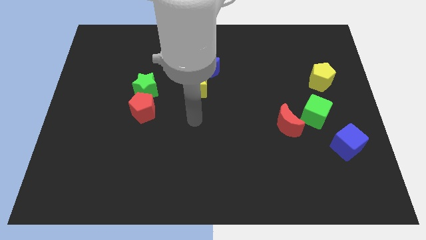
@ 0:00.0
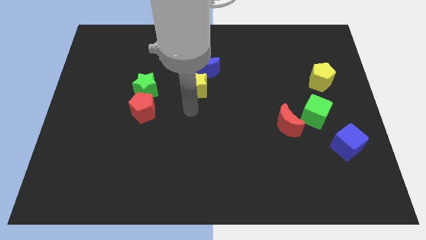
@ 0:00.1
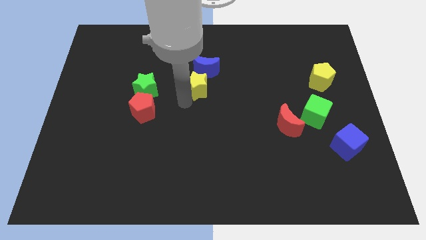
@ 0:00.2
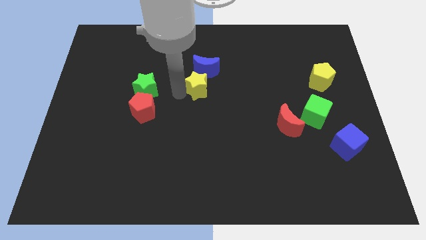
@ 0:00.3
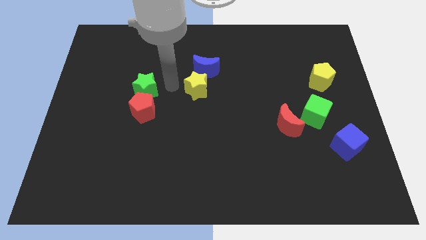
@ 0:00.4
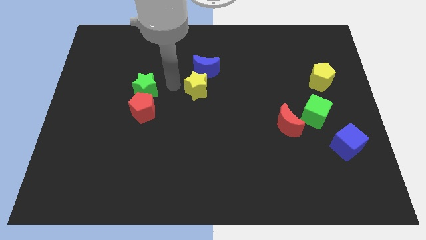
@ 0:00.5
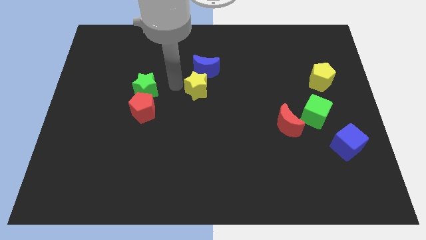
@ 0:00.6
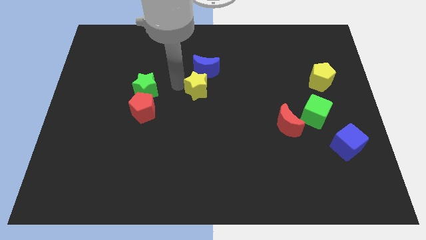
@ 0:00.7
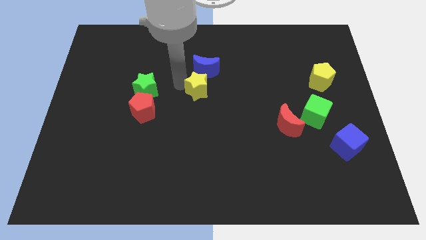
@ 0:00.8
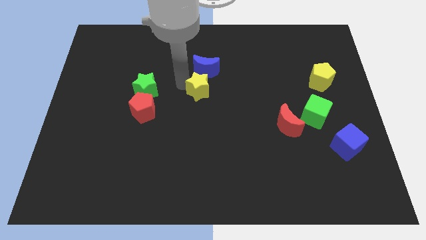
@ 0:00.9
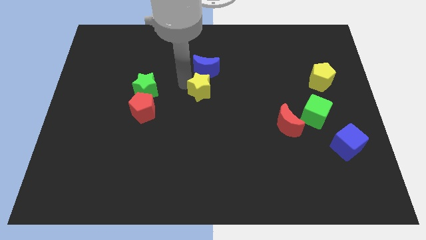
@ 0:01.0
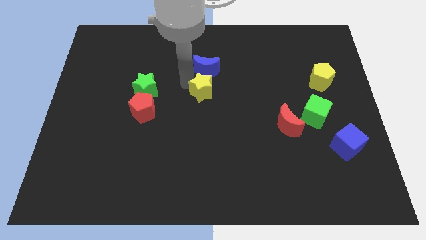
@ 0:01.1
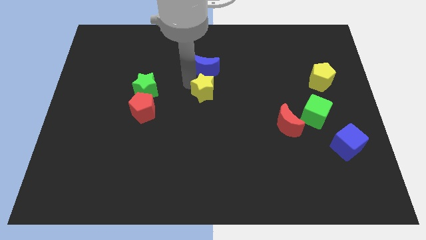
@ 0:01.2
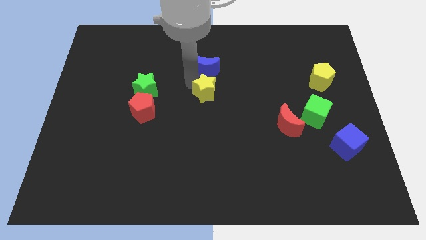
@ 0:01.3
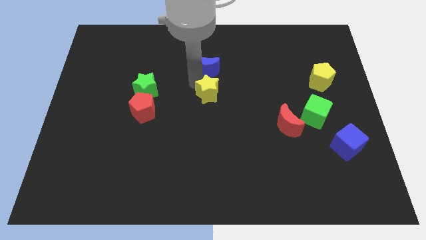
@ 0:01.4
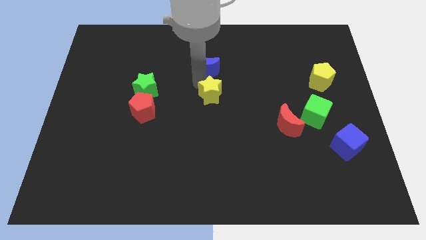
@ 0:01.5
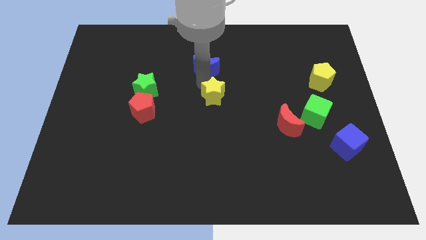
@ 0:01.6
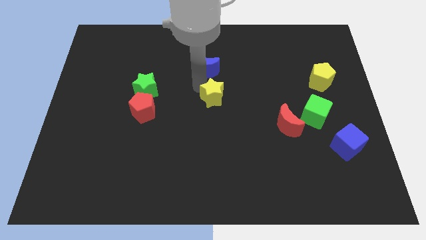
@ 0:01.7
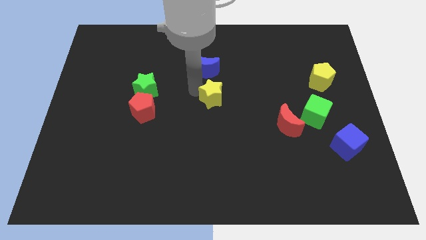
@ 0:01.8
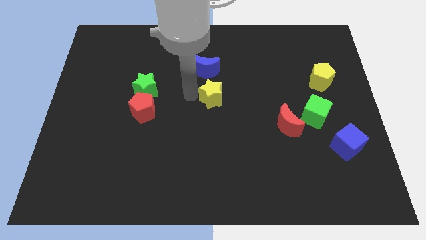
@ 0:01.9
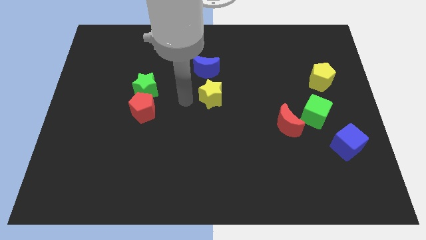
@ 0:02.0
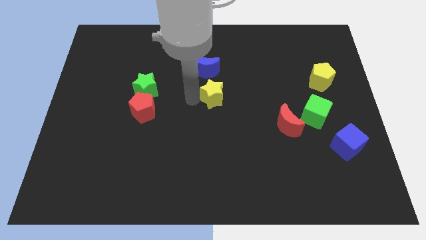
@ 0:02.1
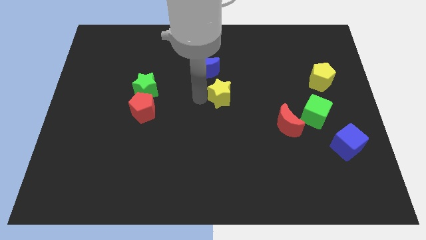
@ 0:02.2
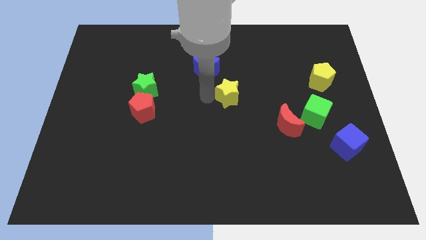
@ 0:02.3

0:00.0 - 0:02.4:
push the yellow star a little bit right

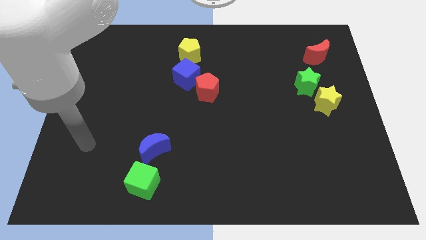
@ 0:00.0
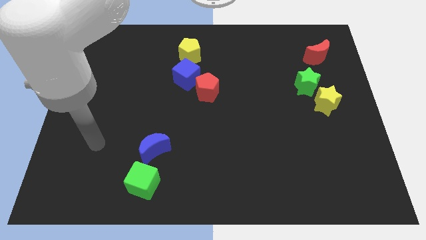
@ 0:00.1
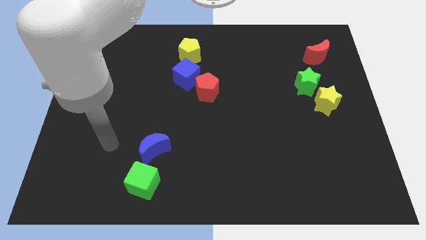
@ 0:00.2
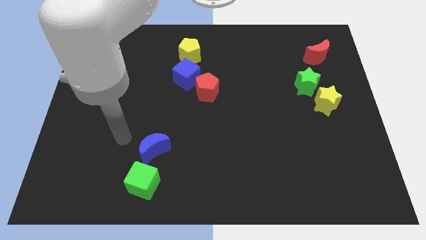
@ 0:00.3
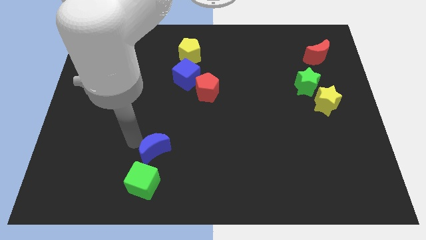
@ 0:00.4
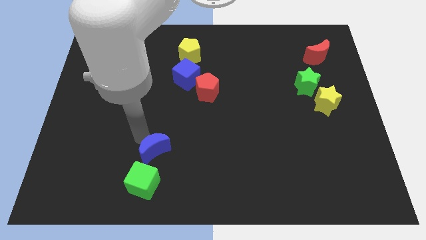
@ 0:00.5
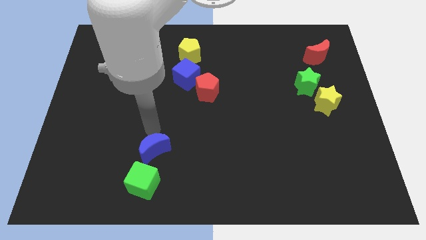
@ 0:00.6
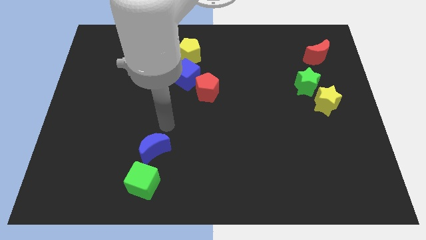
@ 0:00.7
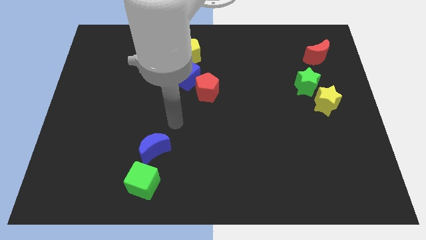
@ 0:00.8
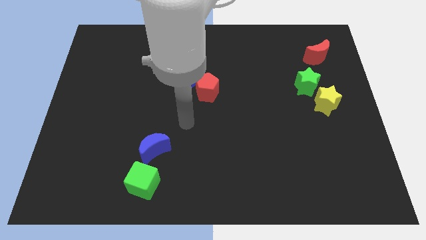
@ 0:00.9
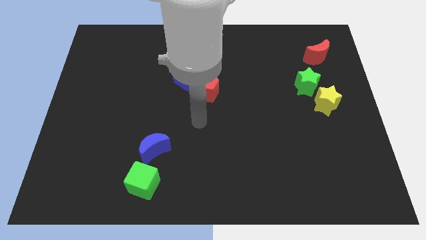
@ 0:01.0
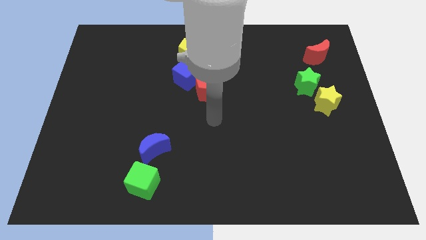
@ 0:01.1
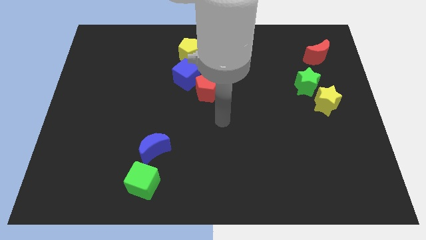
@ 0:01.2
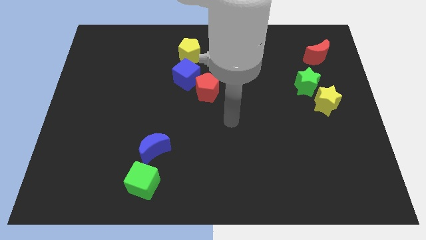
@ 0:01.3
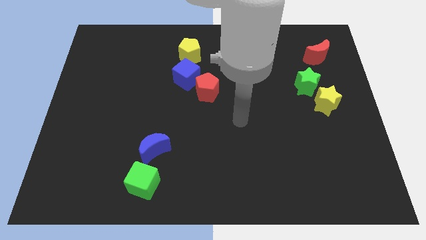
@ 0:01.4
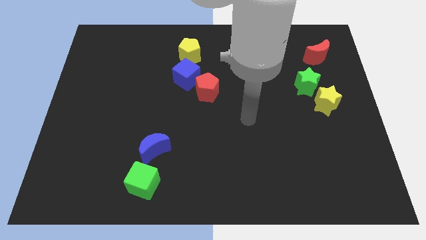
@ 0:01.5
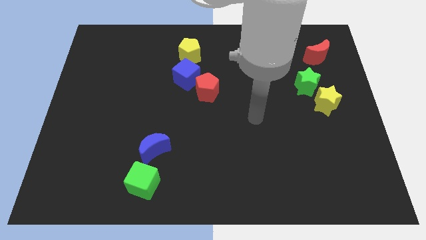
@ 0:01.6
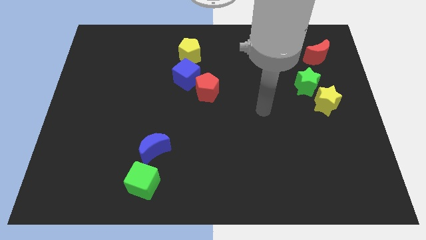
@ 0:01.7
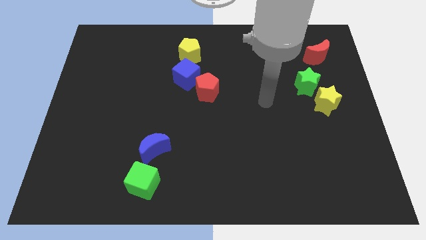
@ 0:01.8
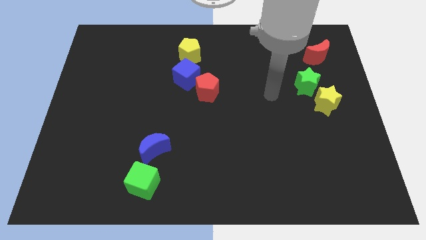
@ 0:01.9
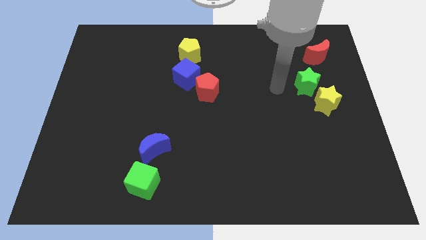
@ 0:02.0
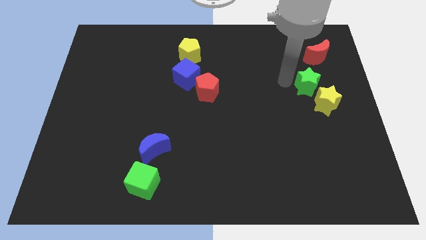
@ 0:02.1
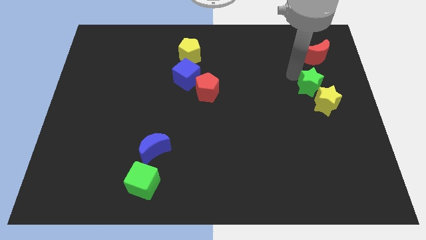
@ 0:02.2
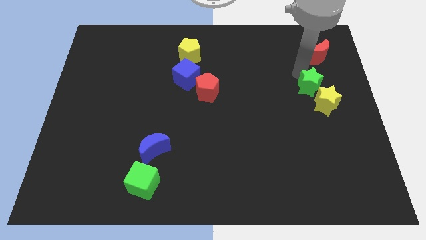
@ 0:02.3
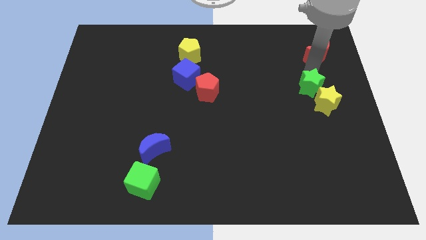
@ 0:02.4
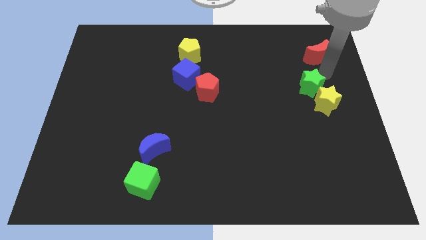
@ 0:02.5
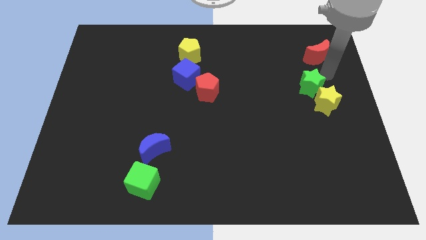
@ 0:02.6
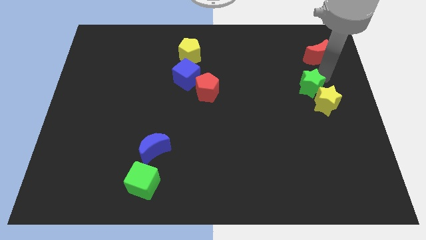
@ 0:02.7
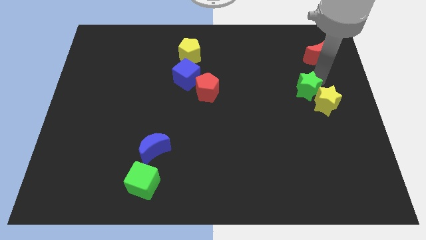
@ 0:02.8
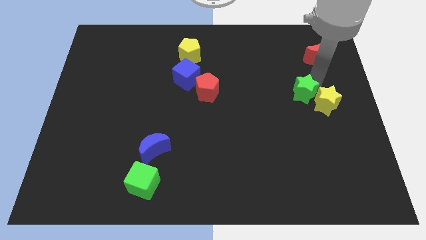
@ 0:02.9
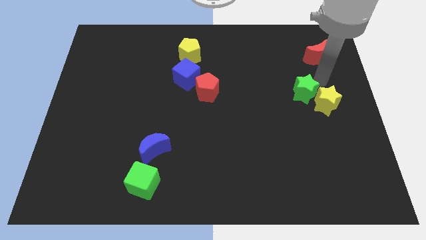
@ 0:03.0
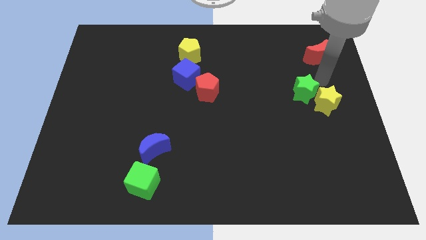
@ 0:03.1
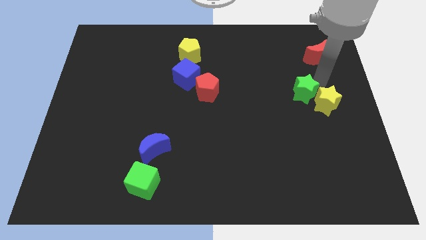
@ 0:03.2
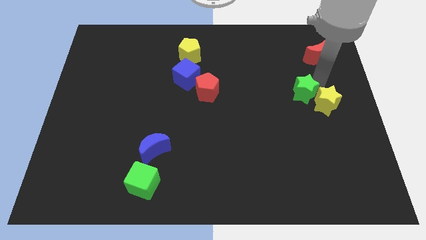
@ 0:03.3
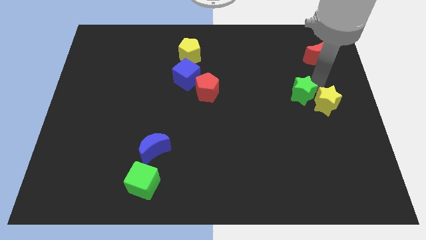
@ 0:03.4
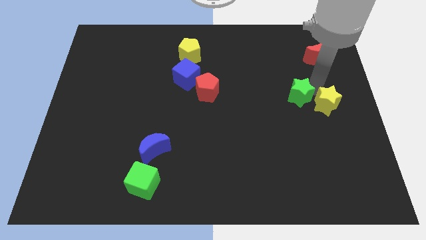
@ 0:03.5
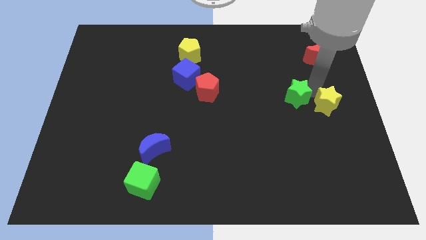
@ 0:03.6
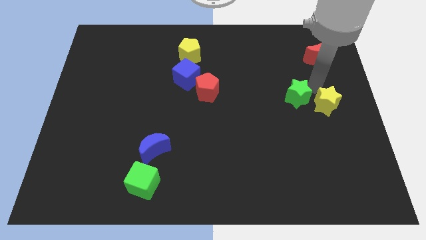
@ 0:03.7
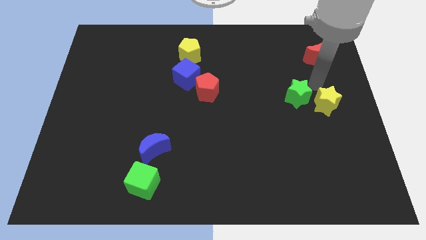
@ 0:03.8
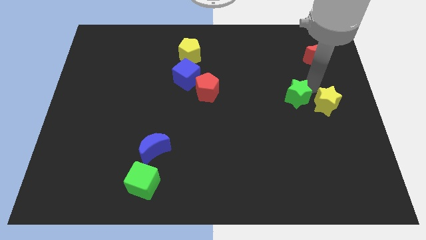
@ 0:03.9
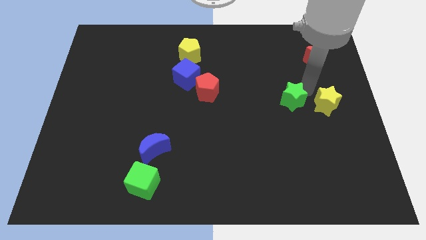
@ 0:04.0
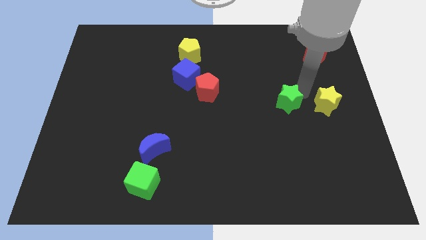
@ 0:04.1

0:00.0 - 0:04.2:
move the green star downwards and to the left diagonally somewhat

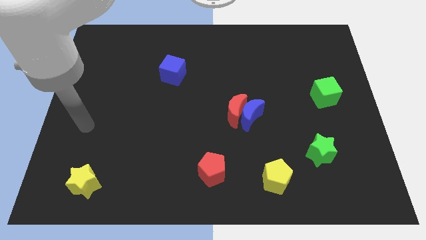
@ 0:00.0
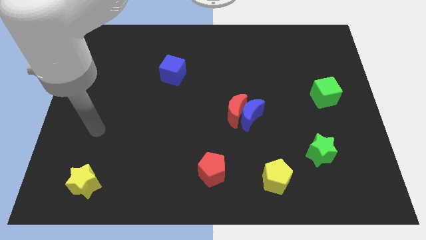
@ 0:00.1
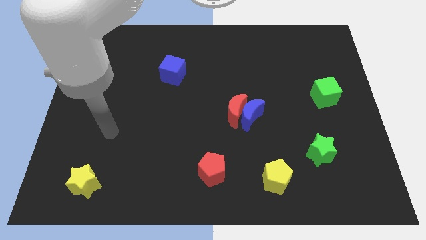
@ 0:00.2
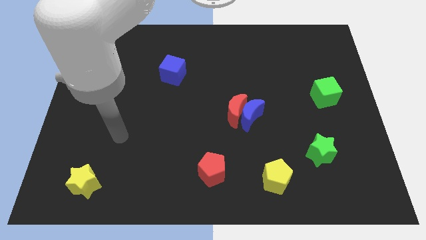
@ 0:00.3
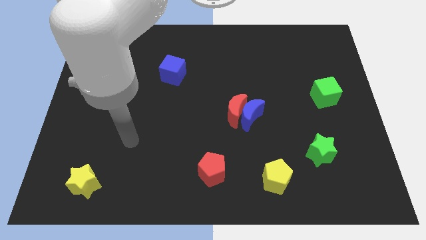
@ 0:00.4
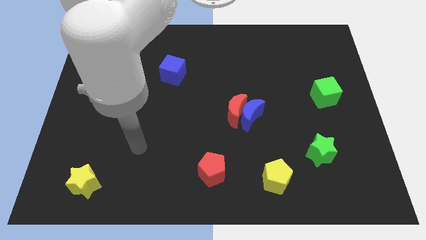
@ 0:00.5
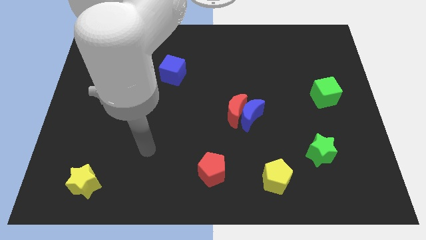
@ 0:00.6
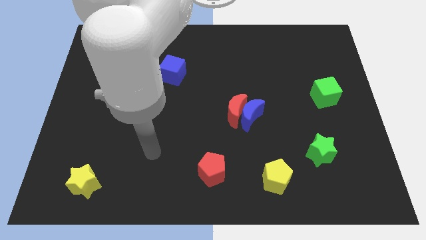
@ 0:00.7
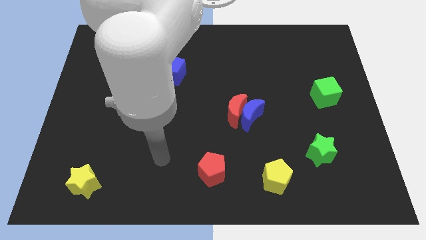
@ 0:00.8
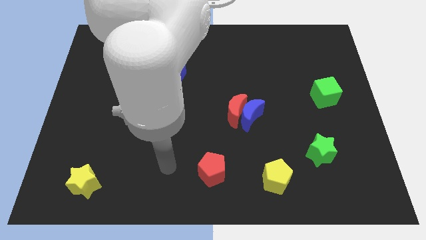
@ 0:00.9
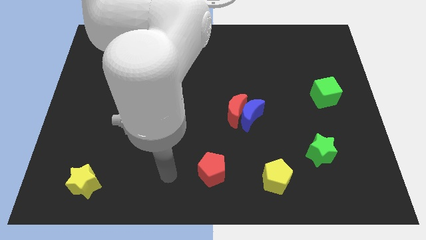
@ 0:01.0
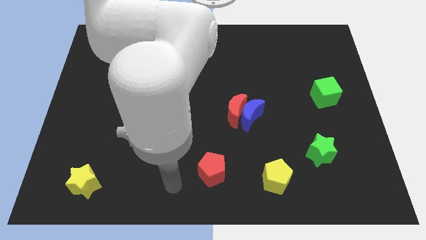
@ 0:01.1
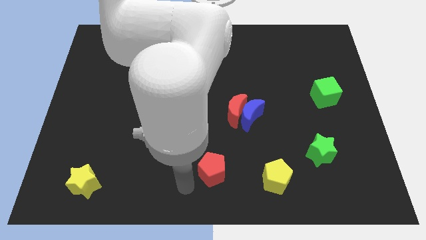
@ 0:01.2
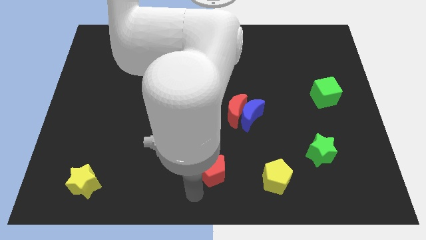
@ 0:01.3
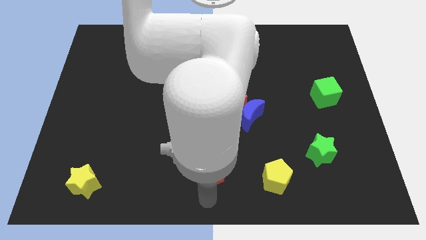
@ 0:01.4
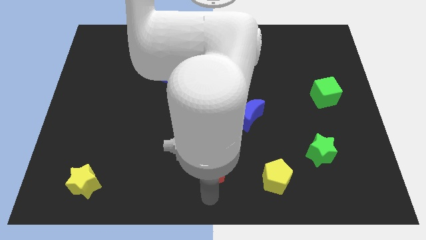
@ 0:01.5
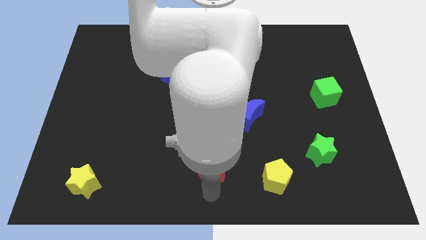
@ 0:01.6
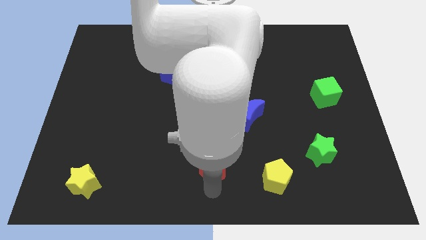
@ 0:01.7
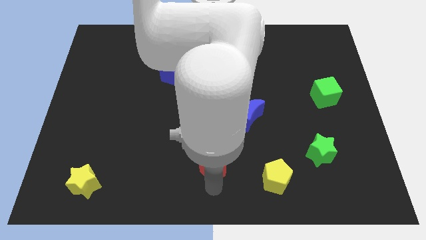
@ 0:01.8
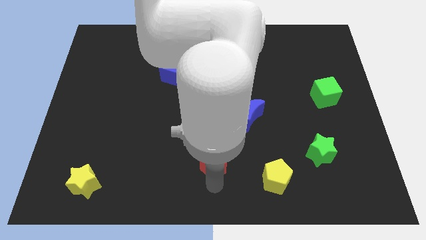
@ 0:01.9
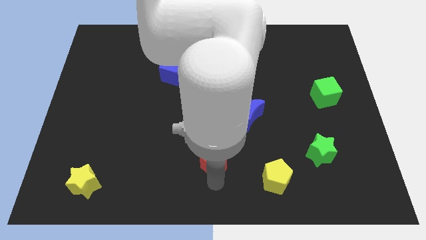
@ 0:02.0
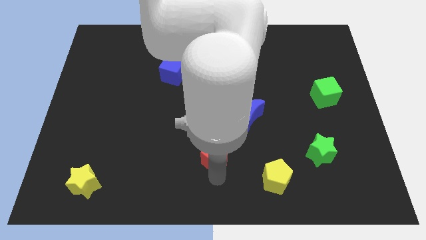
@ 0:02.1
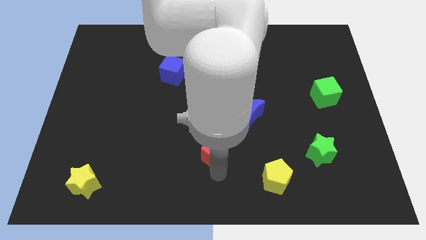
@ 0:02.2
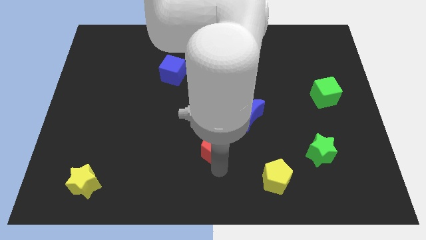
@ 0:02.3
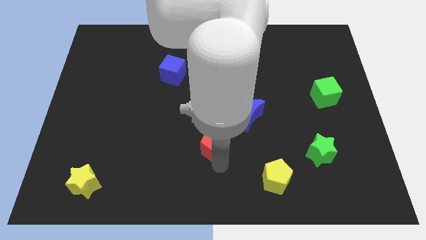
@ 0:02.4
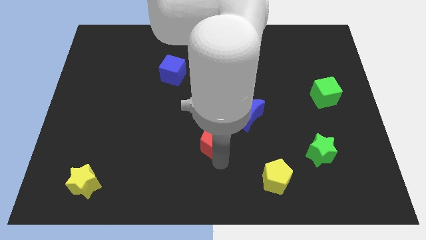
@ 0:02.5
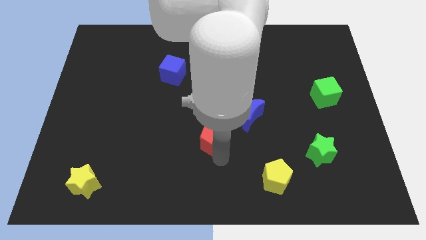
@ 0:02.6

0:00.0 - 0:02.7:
move the red pentagon up somewhat
